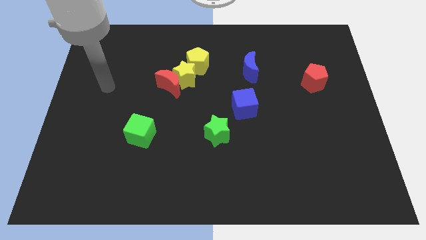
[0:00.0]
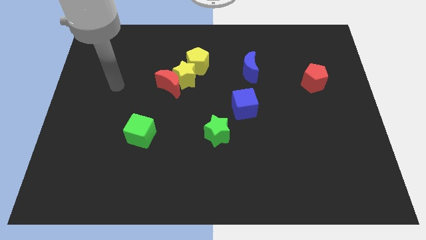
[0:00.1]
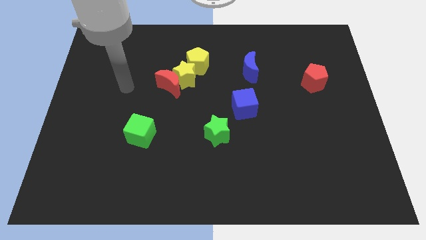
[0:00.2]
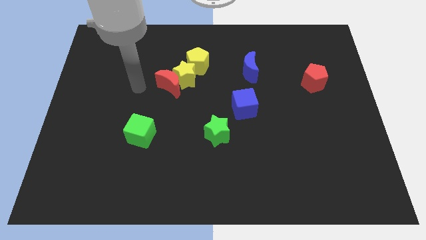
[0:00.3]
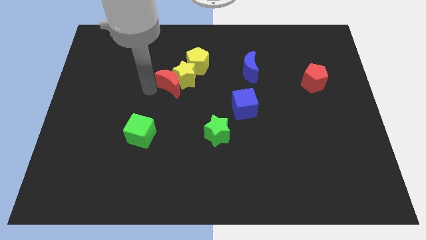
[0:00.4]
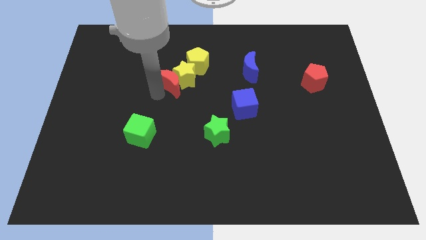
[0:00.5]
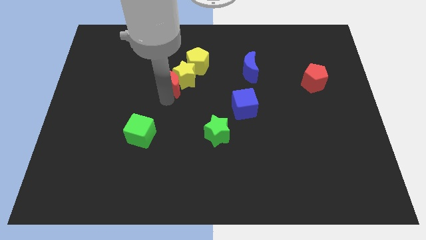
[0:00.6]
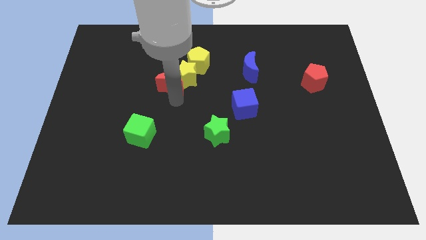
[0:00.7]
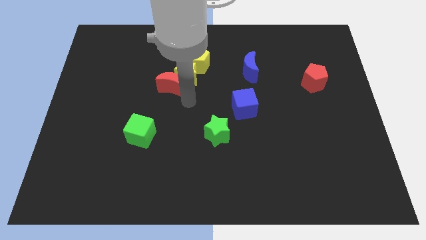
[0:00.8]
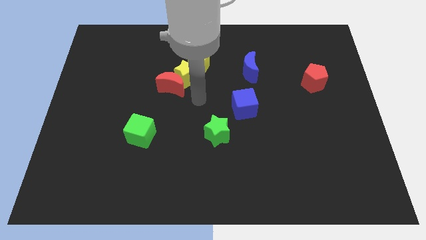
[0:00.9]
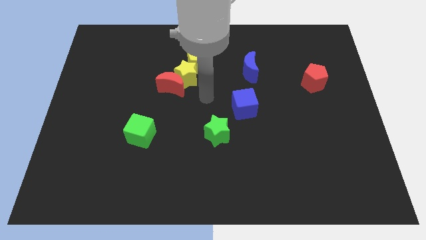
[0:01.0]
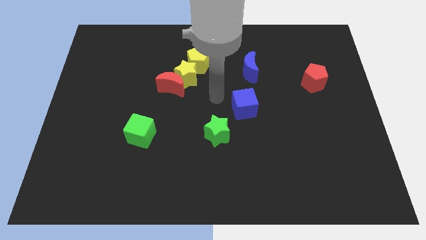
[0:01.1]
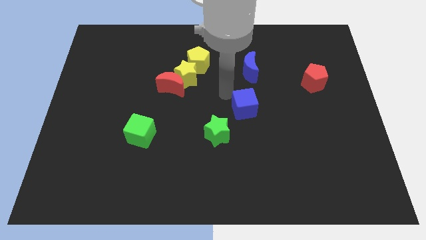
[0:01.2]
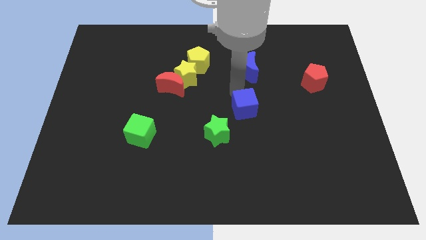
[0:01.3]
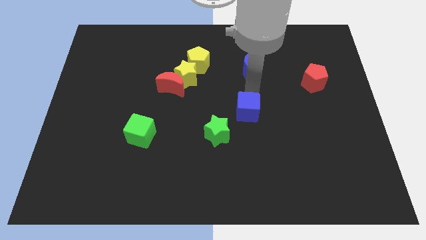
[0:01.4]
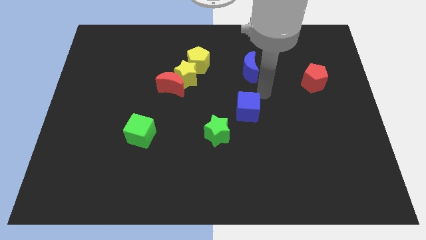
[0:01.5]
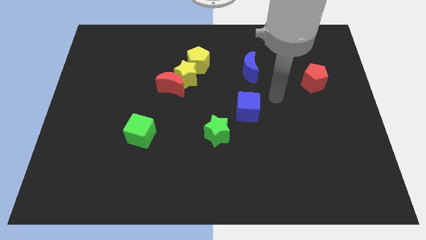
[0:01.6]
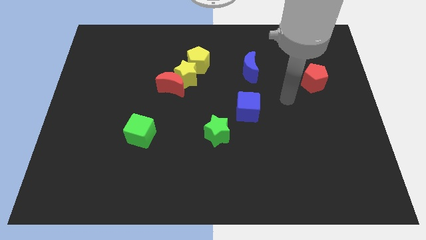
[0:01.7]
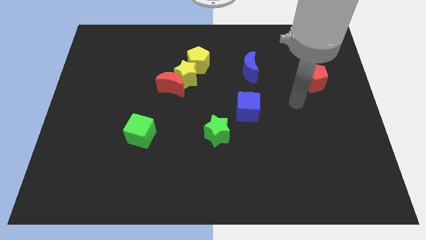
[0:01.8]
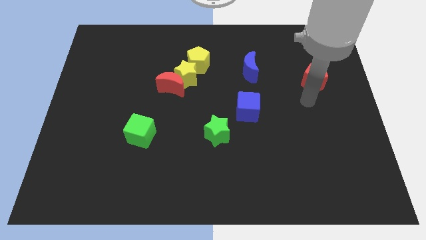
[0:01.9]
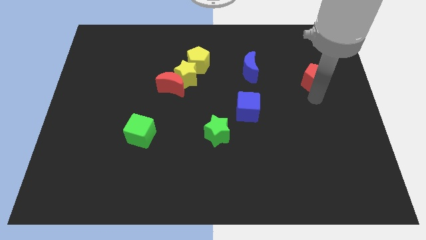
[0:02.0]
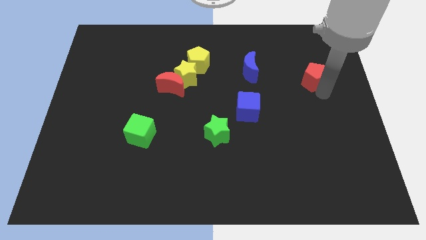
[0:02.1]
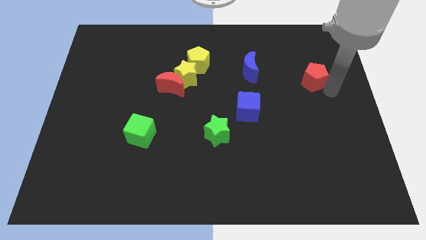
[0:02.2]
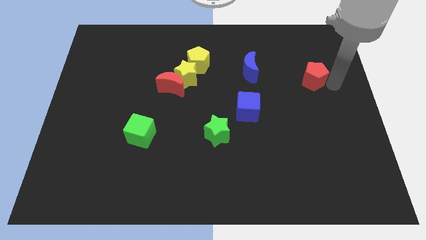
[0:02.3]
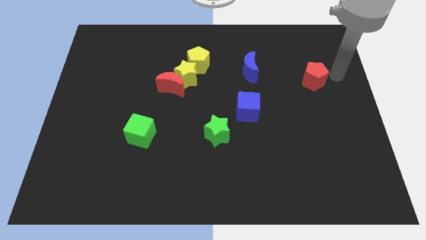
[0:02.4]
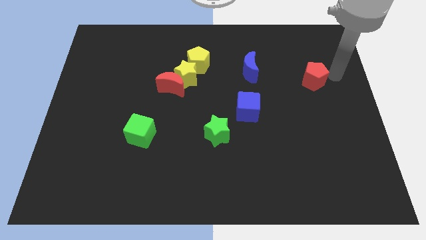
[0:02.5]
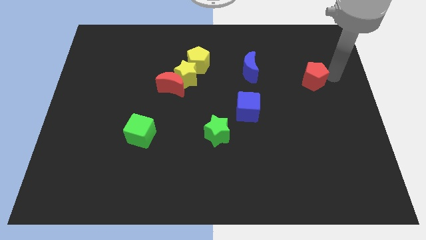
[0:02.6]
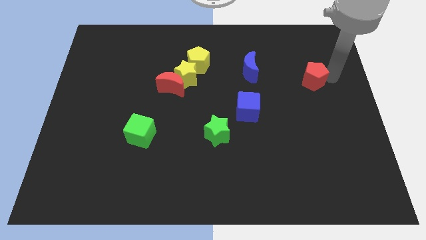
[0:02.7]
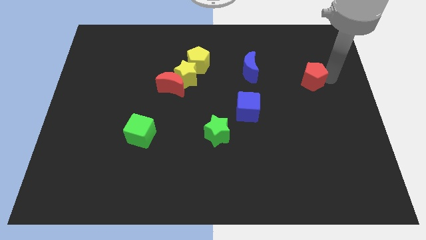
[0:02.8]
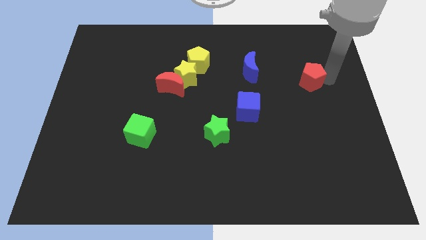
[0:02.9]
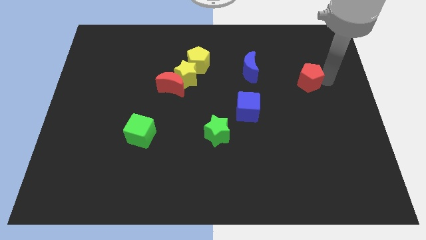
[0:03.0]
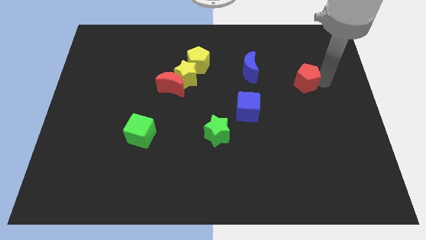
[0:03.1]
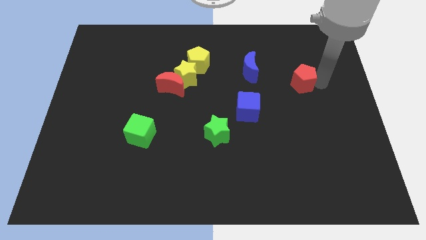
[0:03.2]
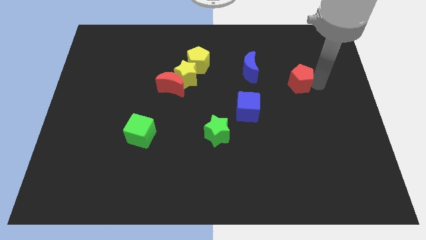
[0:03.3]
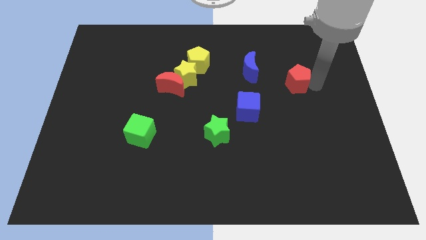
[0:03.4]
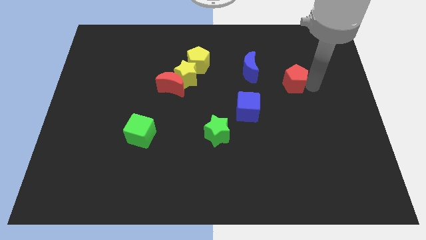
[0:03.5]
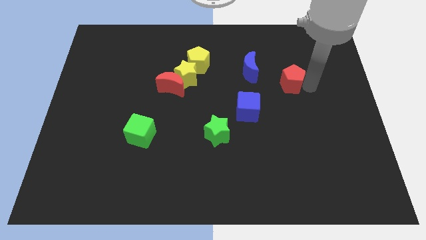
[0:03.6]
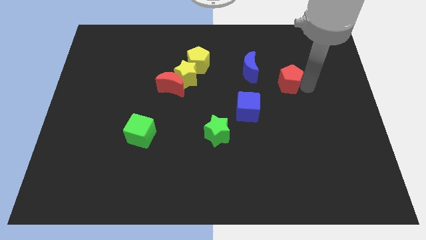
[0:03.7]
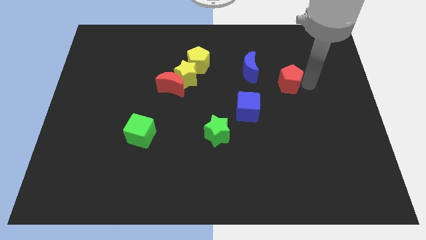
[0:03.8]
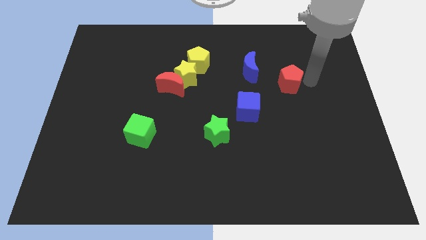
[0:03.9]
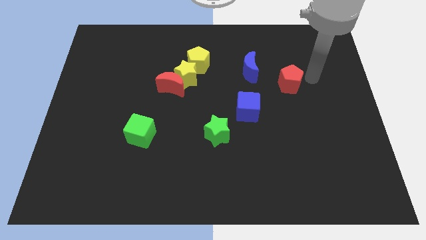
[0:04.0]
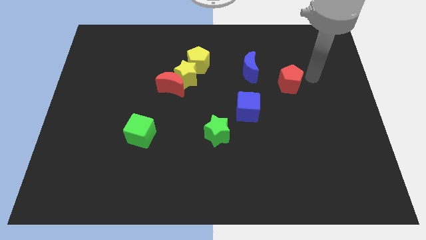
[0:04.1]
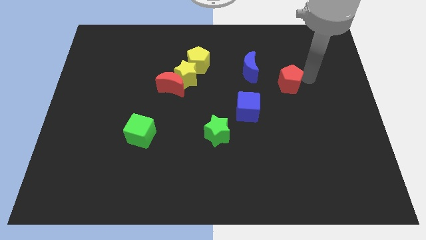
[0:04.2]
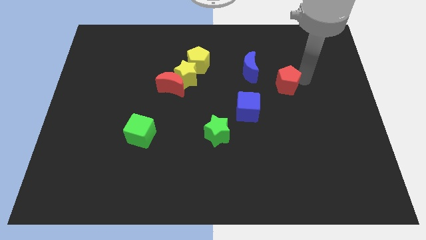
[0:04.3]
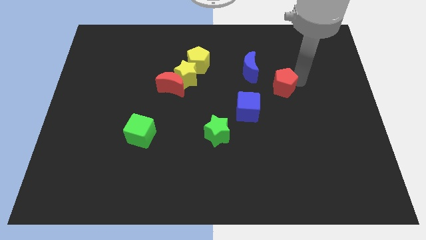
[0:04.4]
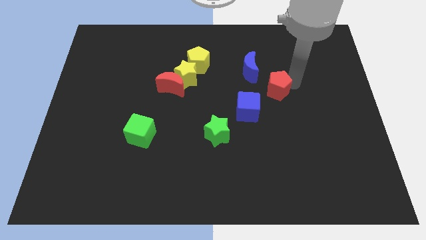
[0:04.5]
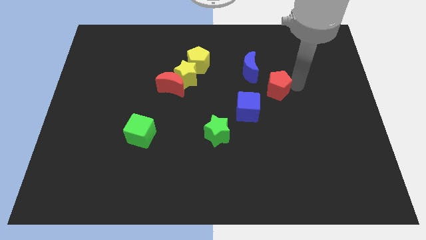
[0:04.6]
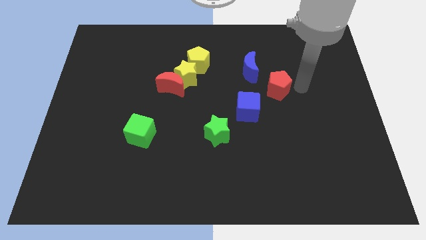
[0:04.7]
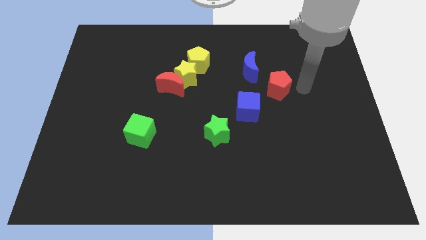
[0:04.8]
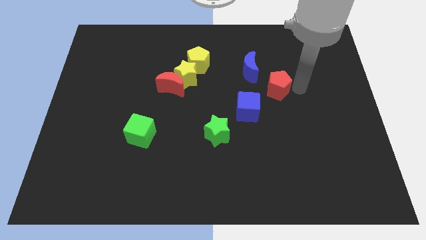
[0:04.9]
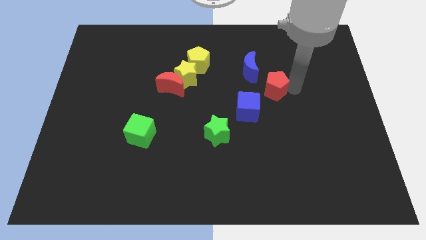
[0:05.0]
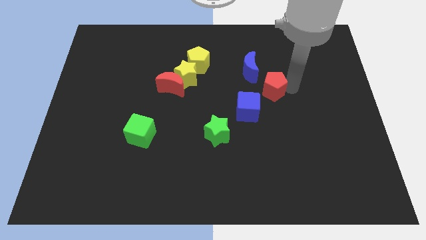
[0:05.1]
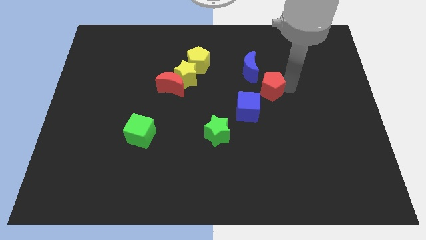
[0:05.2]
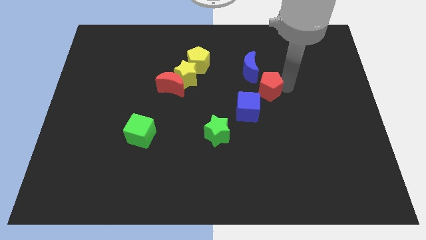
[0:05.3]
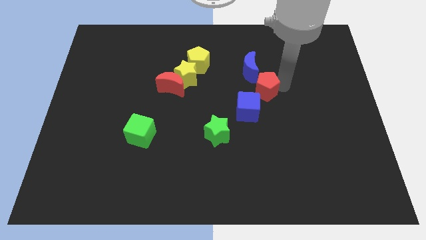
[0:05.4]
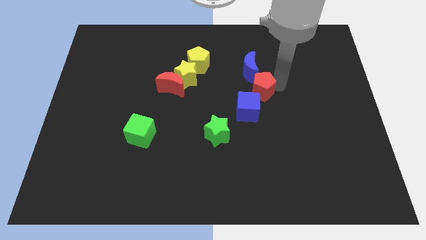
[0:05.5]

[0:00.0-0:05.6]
put the red pentagon to the center
